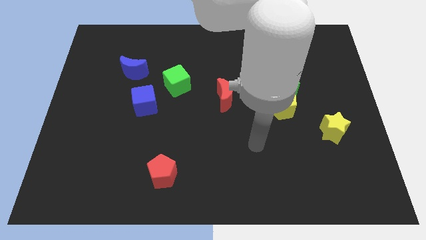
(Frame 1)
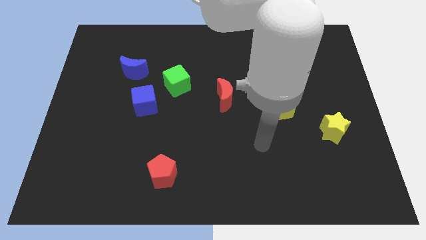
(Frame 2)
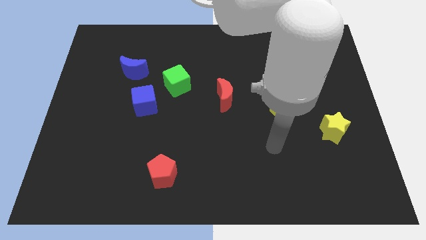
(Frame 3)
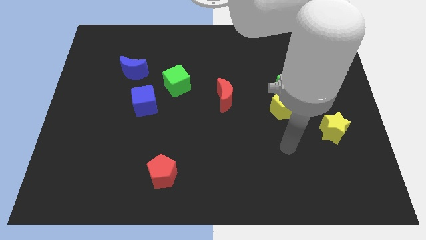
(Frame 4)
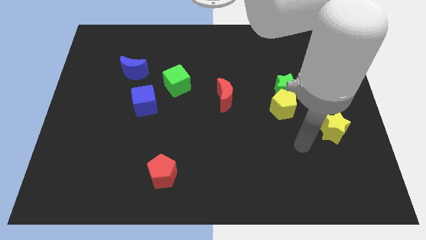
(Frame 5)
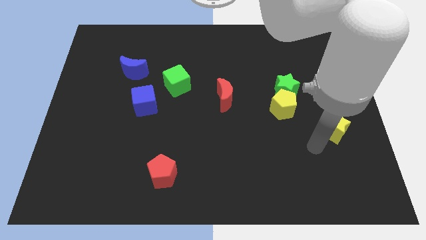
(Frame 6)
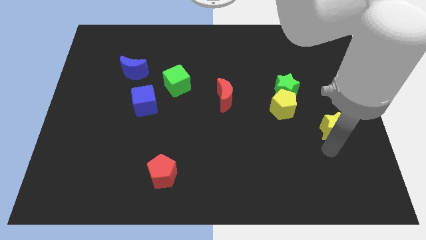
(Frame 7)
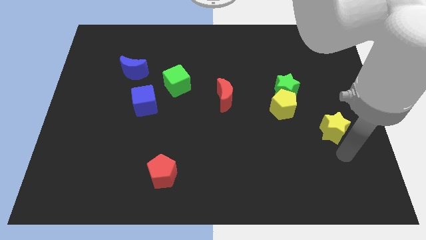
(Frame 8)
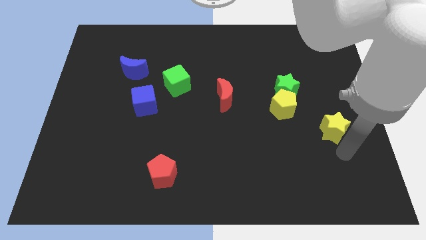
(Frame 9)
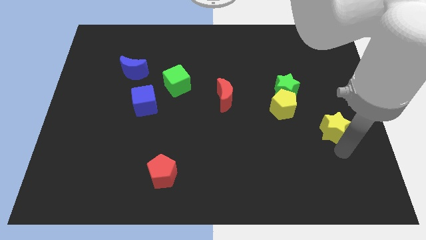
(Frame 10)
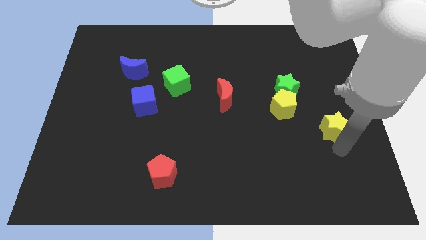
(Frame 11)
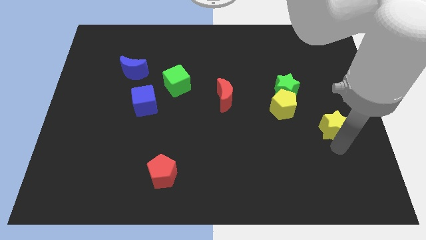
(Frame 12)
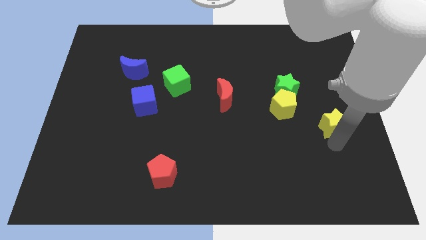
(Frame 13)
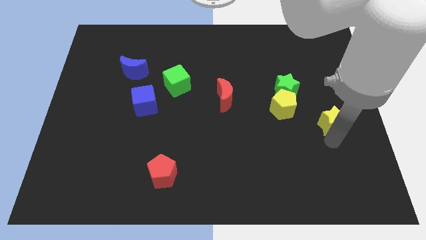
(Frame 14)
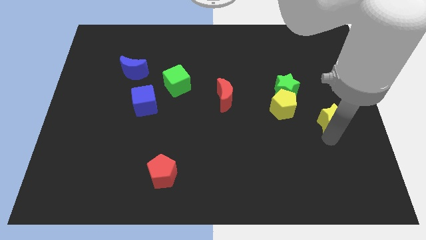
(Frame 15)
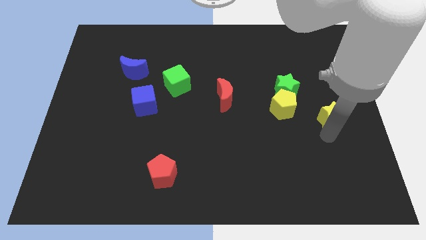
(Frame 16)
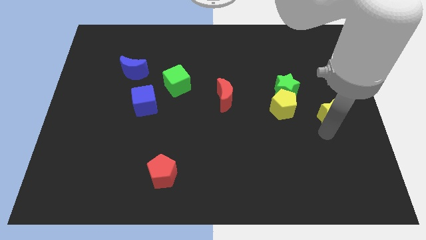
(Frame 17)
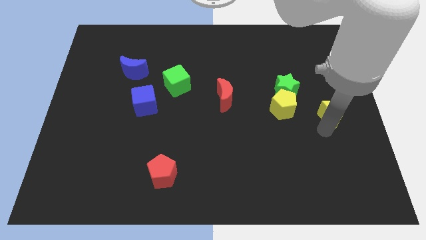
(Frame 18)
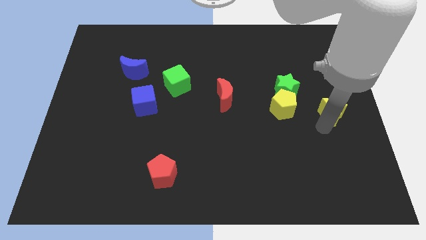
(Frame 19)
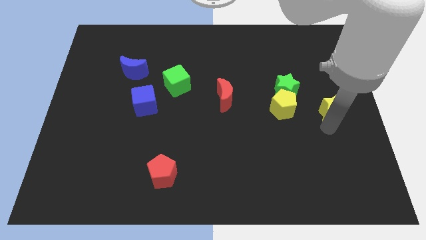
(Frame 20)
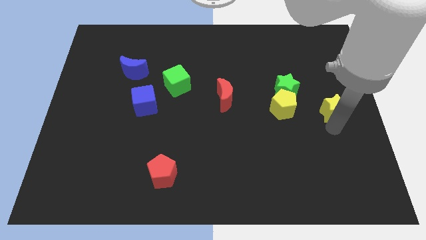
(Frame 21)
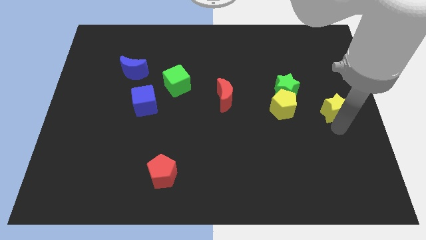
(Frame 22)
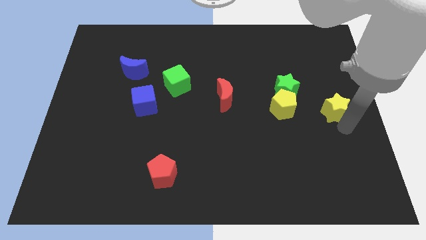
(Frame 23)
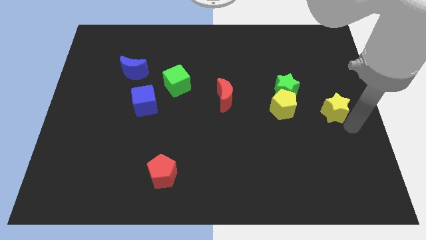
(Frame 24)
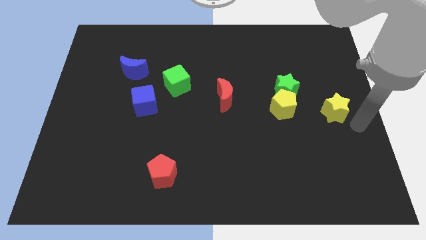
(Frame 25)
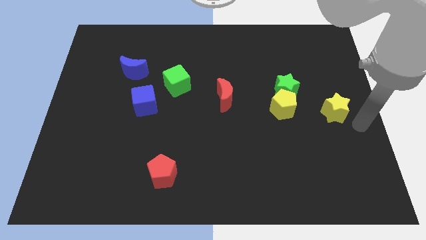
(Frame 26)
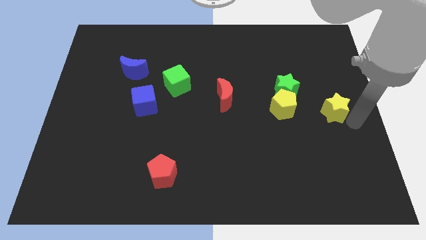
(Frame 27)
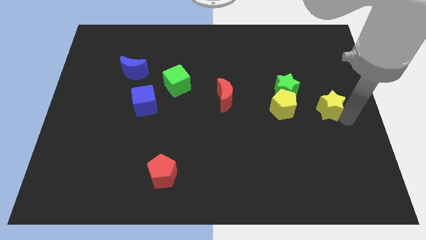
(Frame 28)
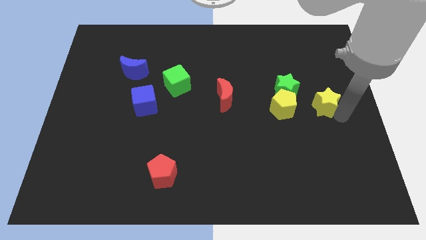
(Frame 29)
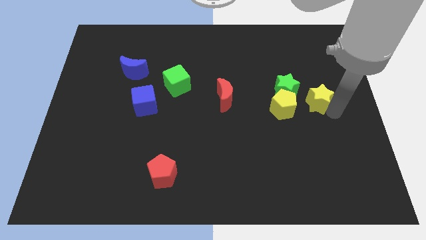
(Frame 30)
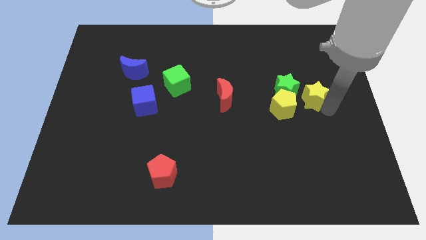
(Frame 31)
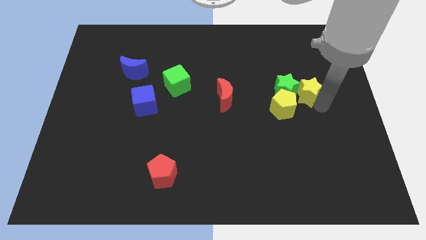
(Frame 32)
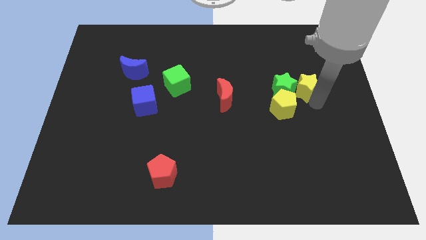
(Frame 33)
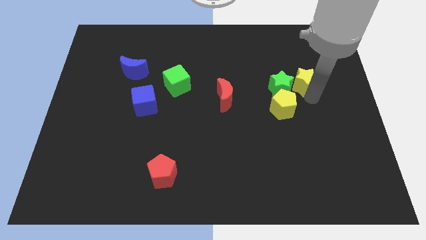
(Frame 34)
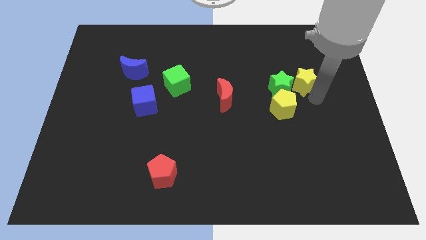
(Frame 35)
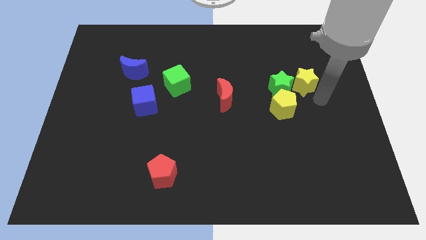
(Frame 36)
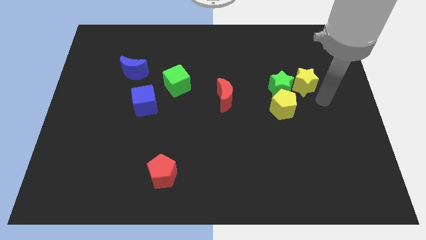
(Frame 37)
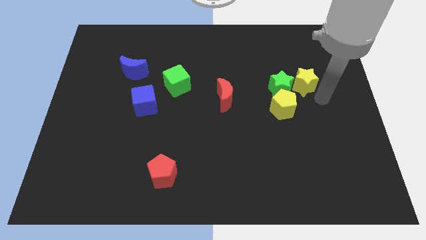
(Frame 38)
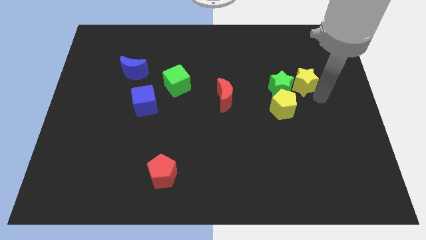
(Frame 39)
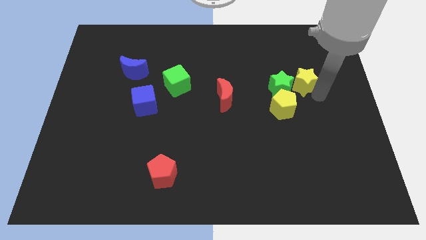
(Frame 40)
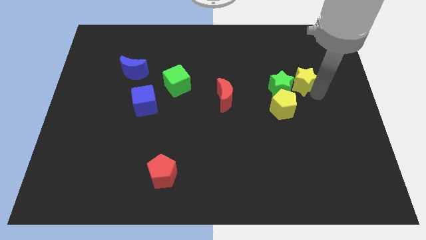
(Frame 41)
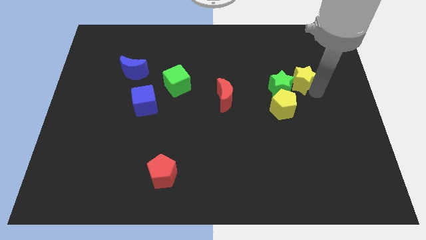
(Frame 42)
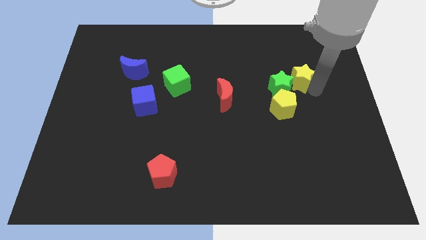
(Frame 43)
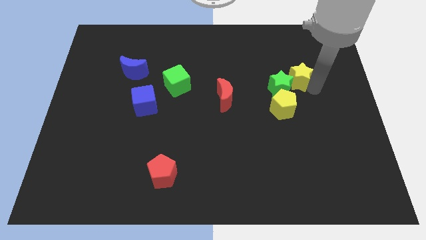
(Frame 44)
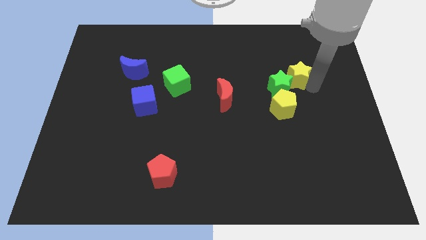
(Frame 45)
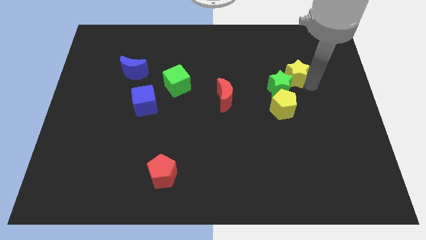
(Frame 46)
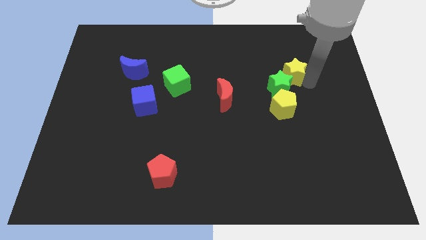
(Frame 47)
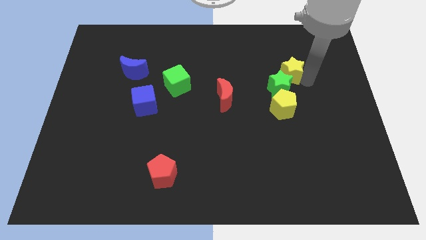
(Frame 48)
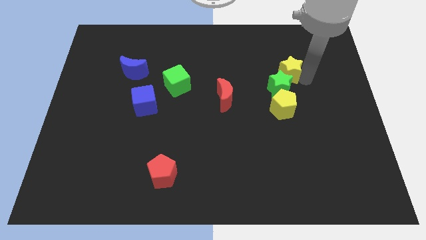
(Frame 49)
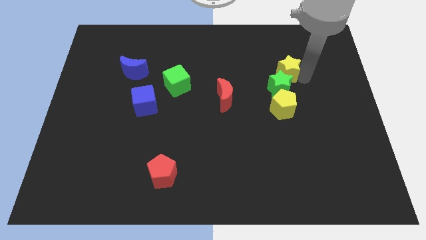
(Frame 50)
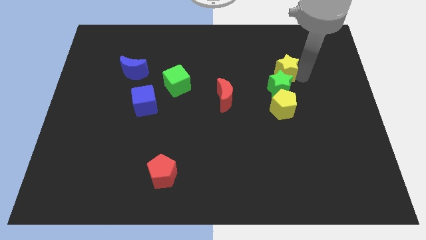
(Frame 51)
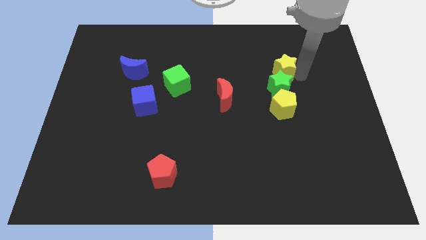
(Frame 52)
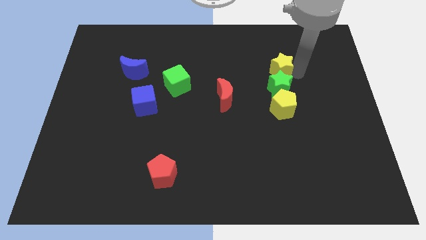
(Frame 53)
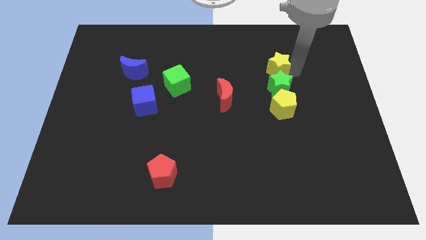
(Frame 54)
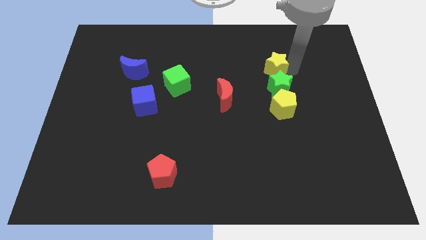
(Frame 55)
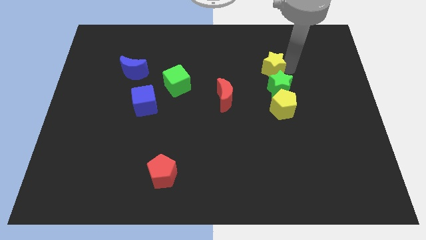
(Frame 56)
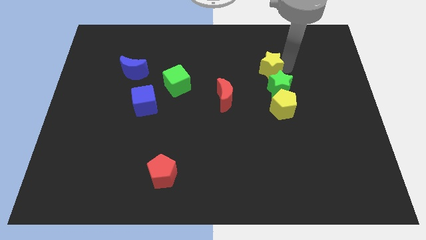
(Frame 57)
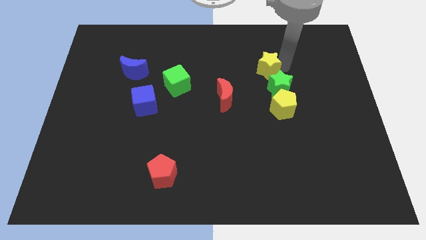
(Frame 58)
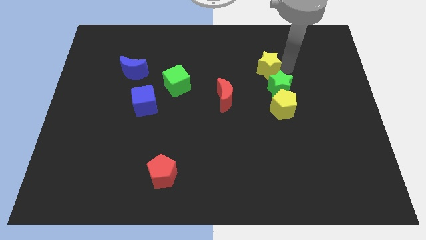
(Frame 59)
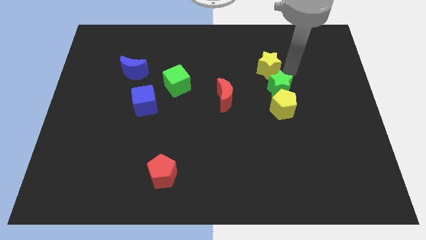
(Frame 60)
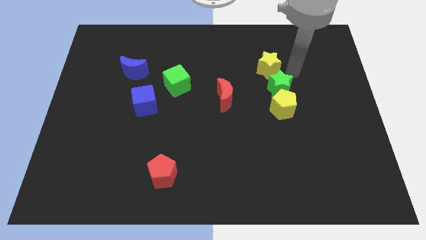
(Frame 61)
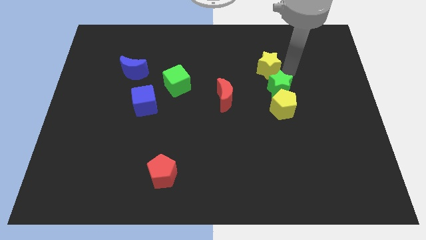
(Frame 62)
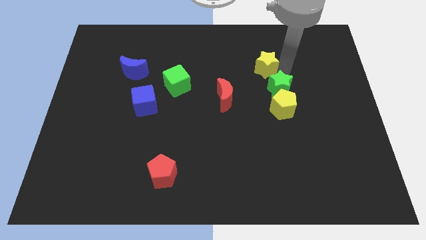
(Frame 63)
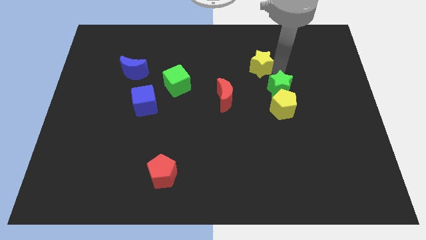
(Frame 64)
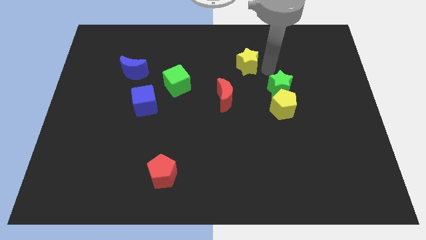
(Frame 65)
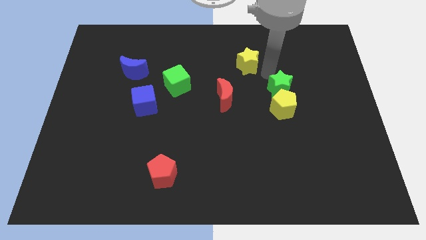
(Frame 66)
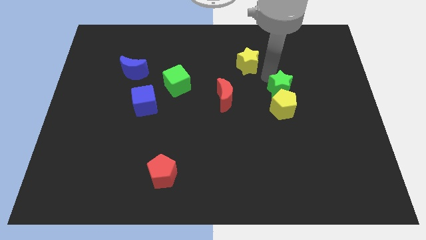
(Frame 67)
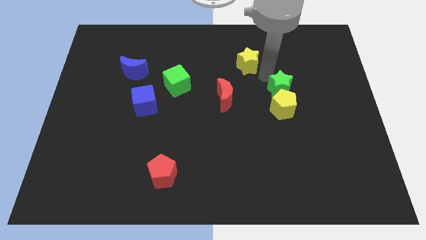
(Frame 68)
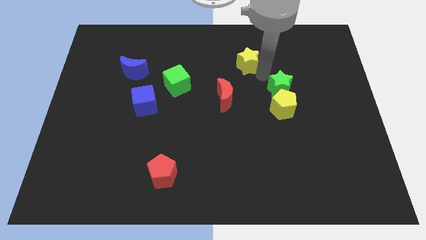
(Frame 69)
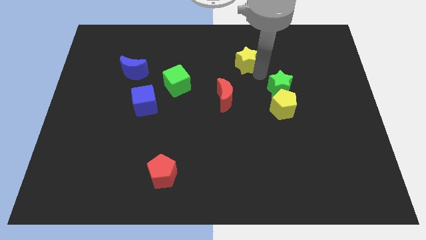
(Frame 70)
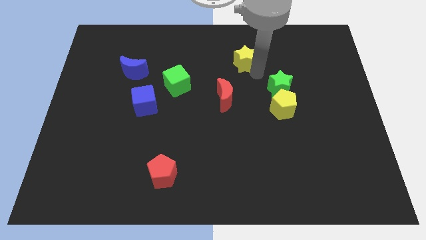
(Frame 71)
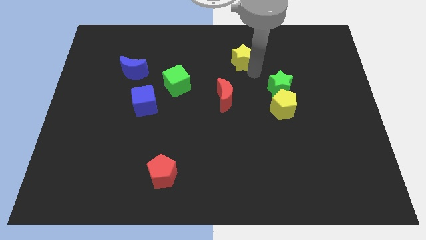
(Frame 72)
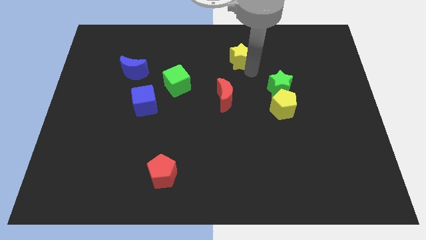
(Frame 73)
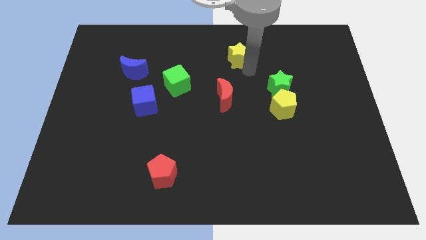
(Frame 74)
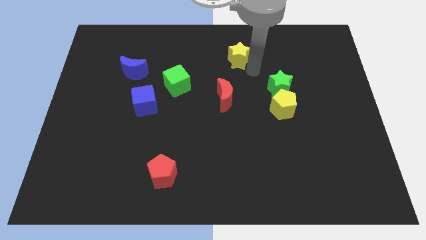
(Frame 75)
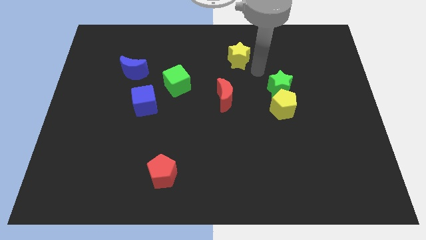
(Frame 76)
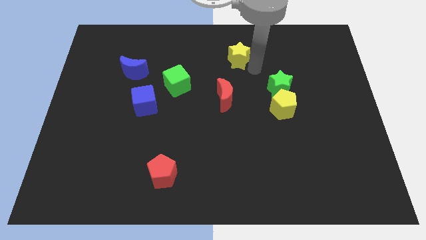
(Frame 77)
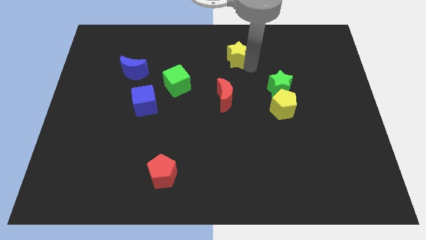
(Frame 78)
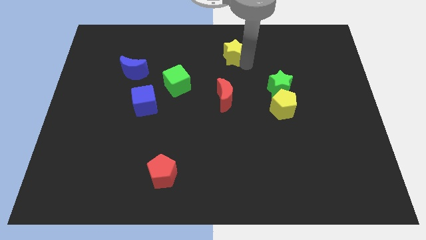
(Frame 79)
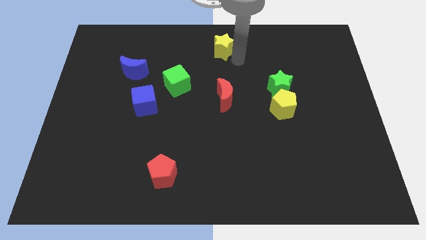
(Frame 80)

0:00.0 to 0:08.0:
move the yellow star to the top side
